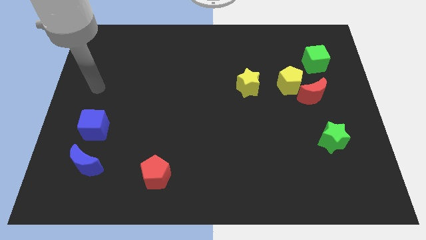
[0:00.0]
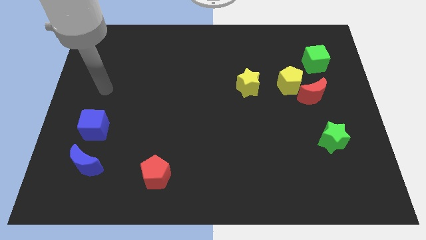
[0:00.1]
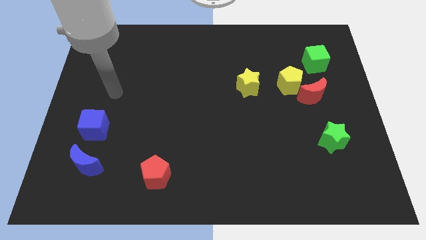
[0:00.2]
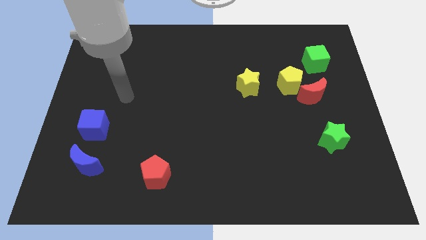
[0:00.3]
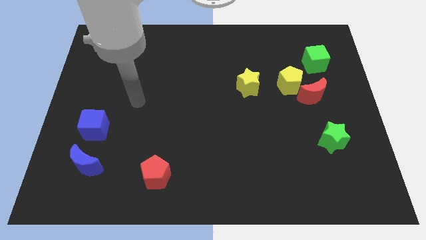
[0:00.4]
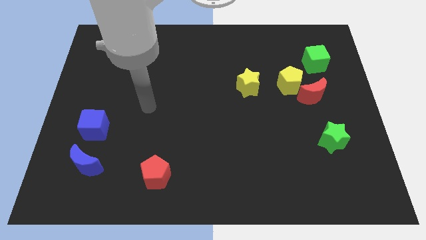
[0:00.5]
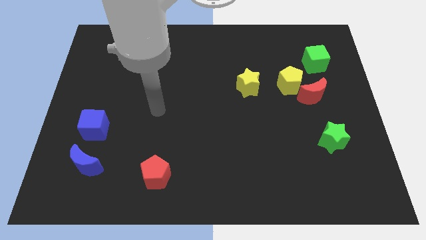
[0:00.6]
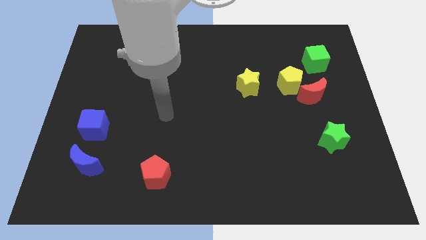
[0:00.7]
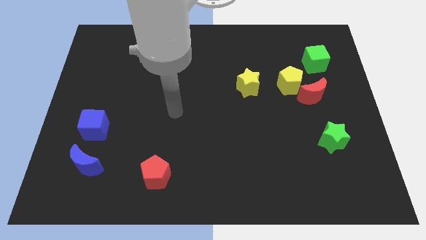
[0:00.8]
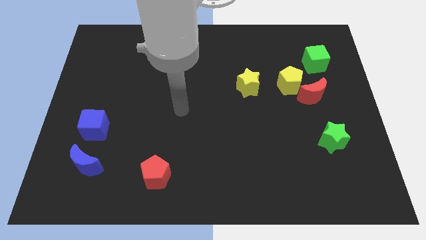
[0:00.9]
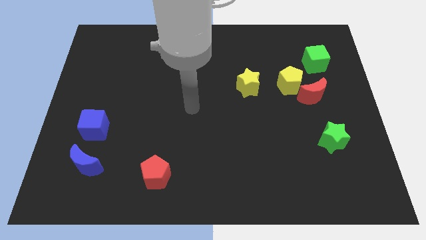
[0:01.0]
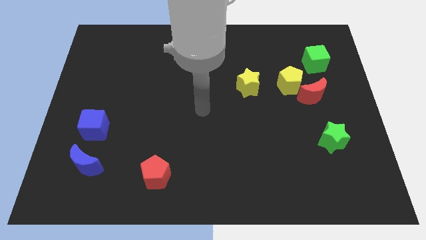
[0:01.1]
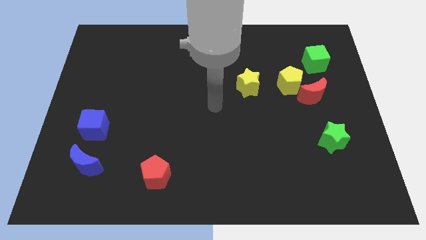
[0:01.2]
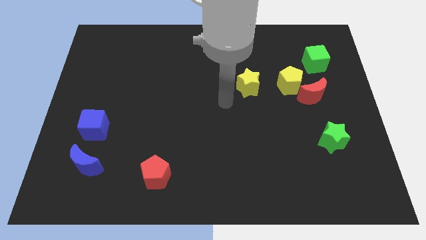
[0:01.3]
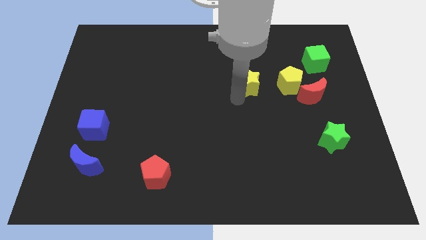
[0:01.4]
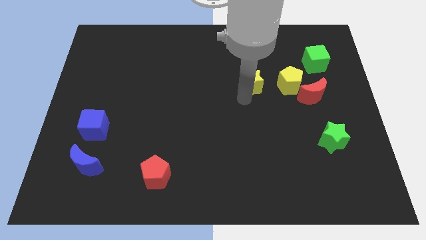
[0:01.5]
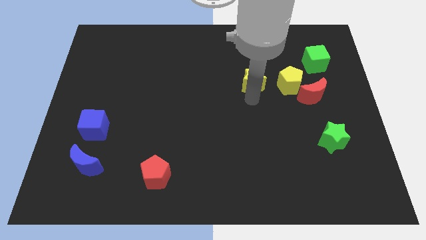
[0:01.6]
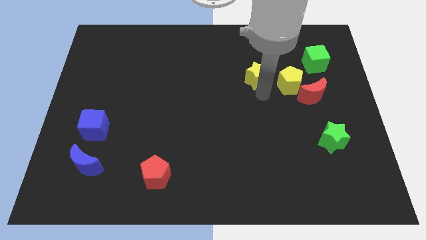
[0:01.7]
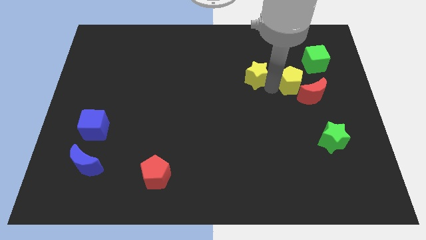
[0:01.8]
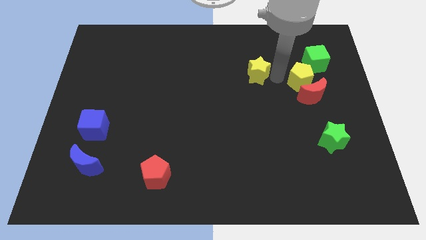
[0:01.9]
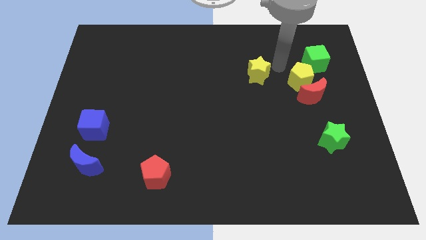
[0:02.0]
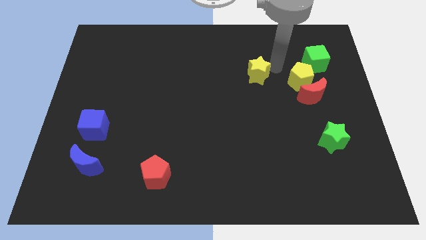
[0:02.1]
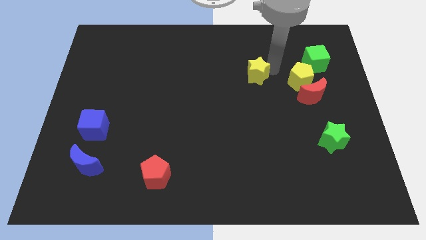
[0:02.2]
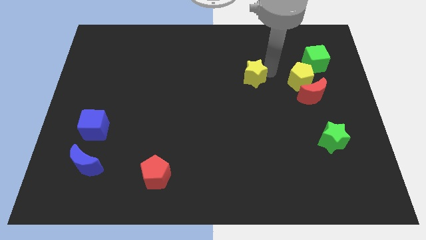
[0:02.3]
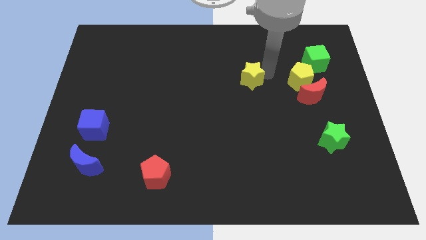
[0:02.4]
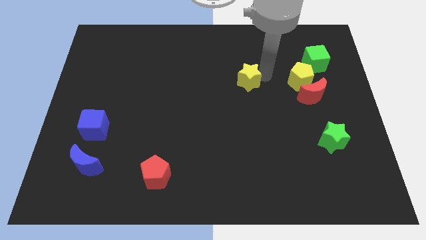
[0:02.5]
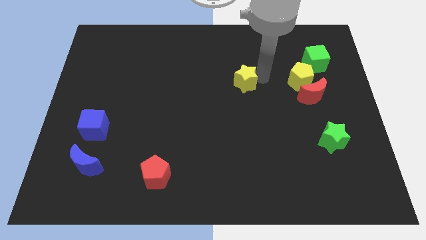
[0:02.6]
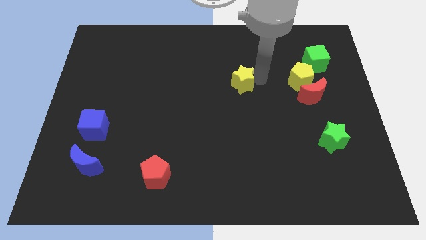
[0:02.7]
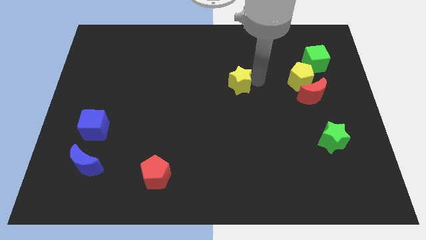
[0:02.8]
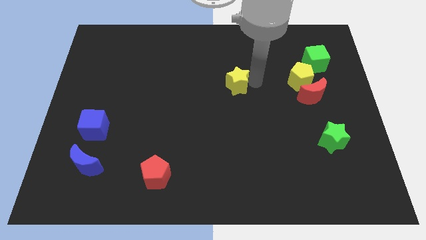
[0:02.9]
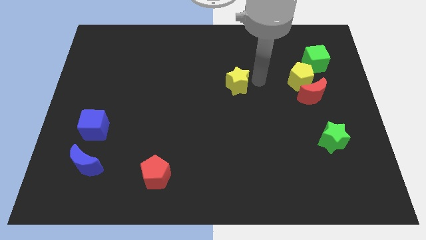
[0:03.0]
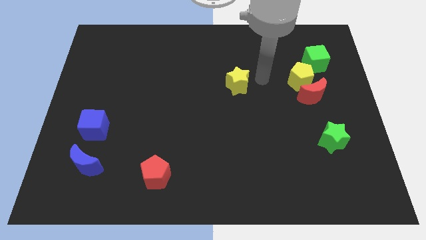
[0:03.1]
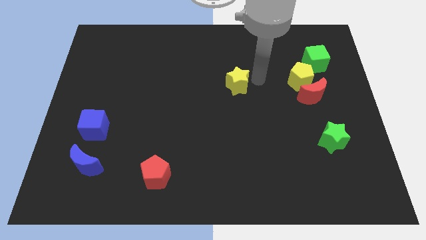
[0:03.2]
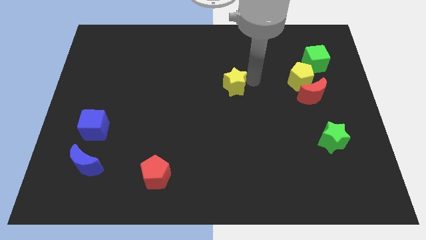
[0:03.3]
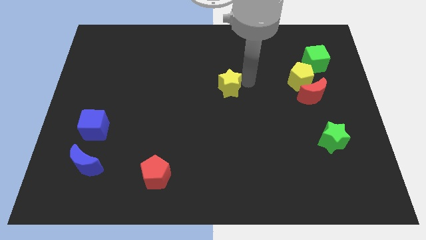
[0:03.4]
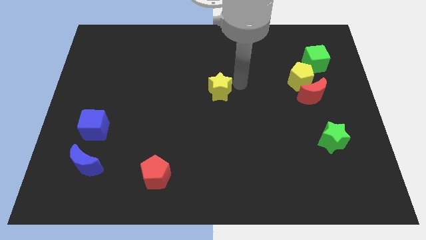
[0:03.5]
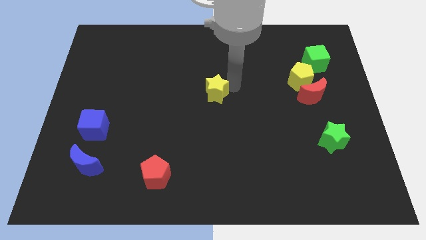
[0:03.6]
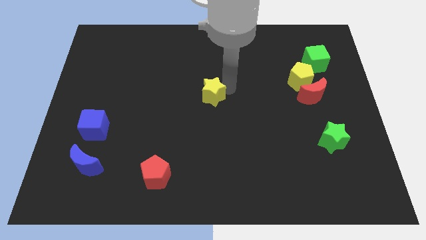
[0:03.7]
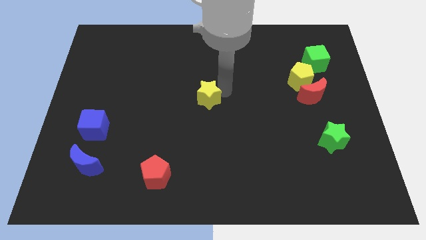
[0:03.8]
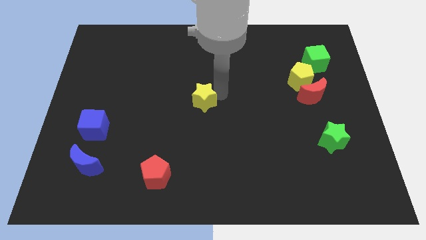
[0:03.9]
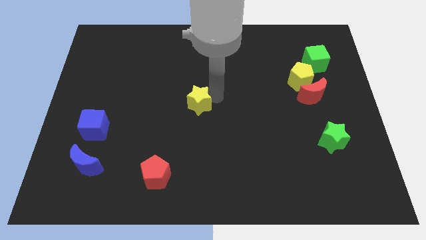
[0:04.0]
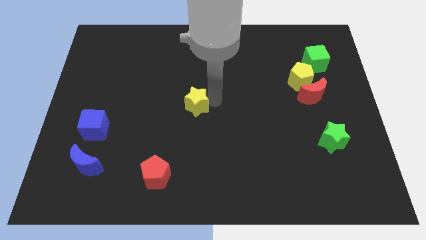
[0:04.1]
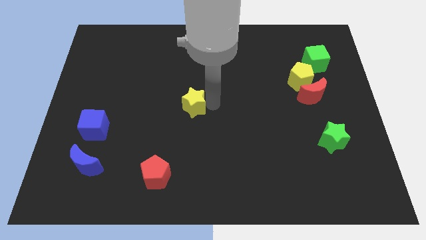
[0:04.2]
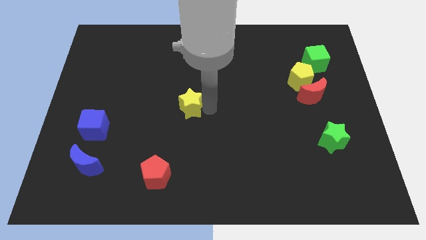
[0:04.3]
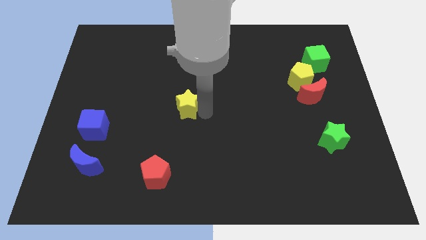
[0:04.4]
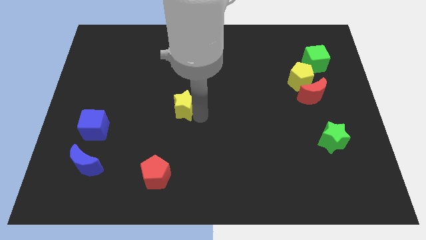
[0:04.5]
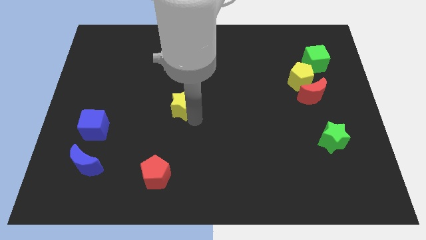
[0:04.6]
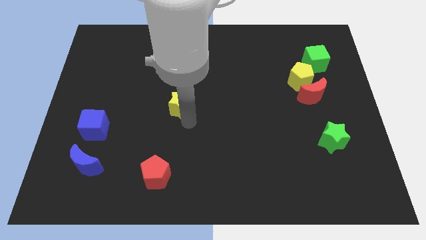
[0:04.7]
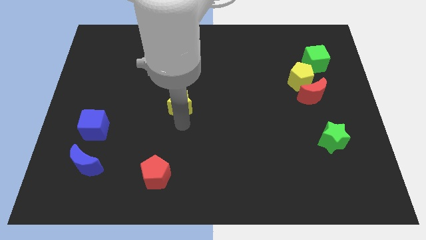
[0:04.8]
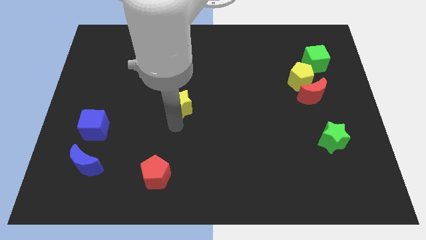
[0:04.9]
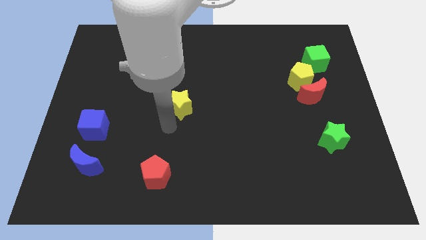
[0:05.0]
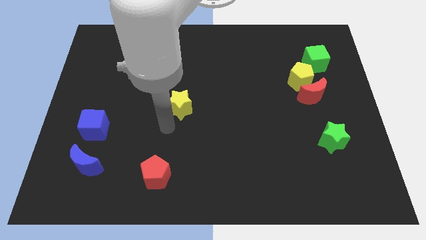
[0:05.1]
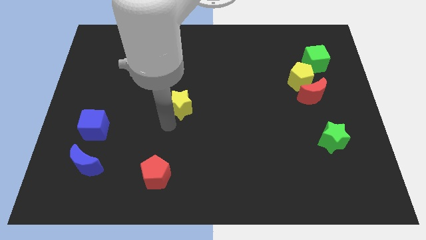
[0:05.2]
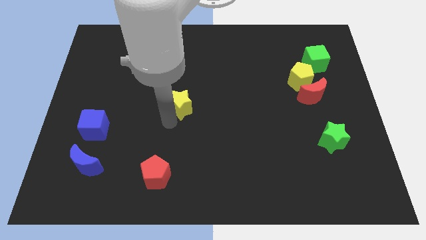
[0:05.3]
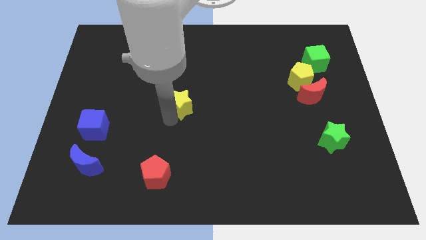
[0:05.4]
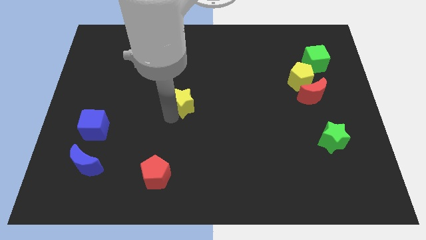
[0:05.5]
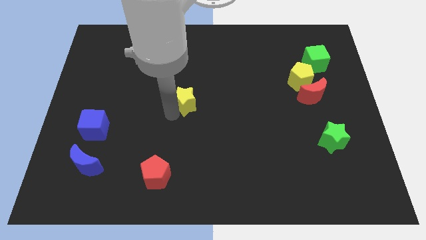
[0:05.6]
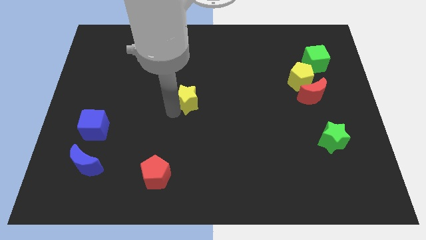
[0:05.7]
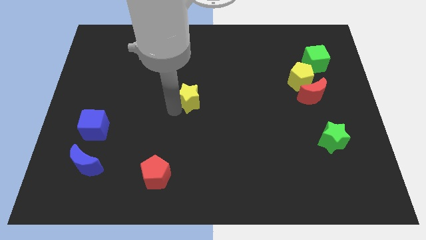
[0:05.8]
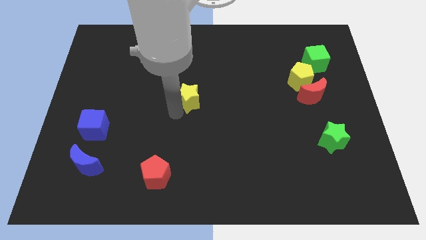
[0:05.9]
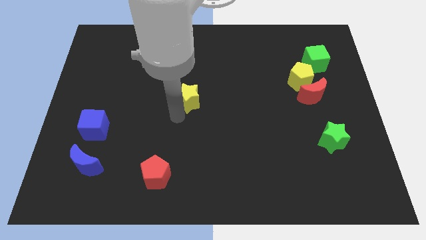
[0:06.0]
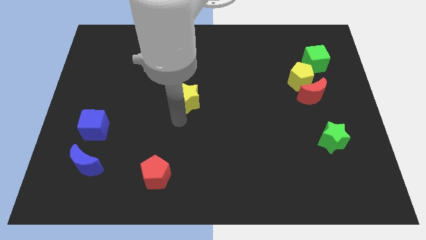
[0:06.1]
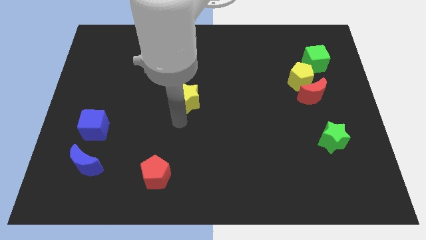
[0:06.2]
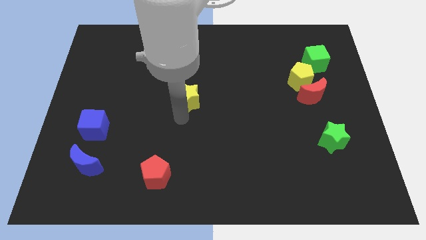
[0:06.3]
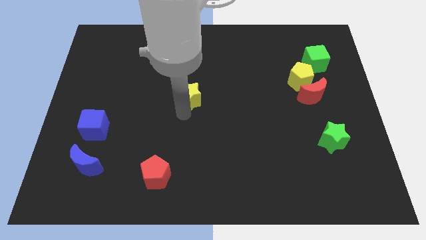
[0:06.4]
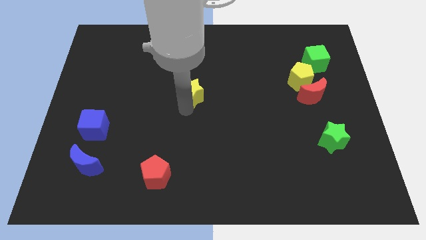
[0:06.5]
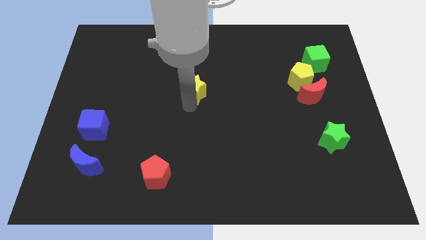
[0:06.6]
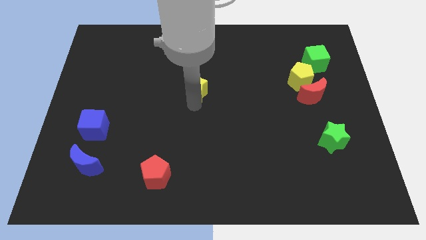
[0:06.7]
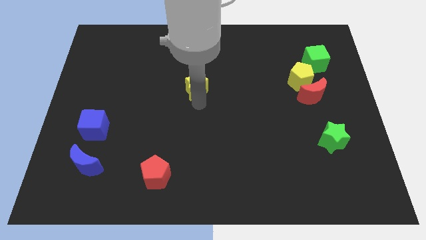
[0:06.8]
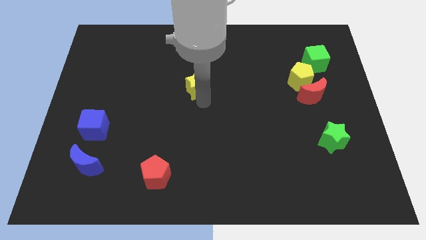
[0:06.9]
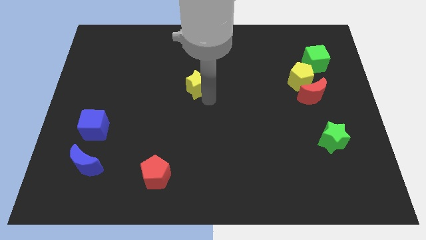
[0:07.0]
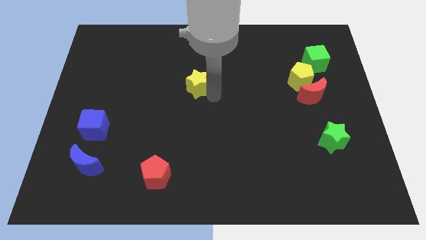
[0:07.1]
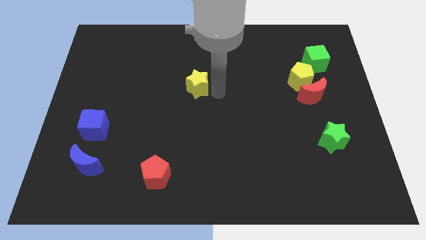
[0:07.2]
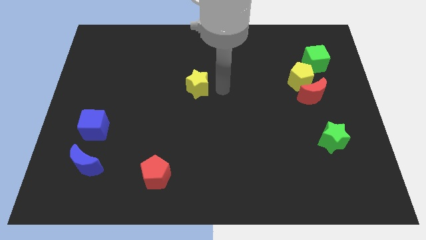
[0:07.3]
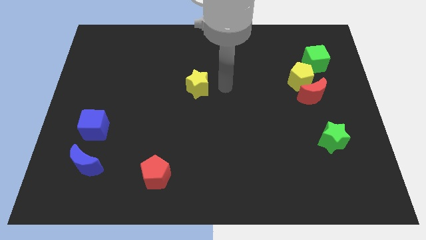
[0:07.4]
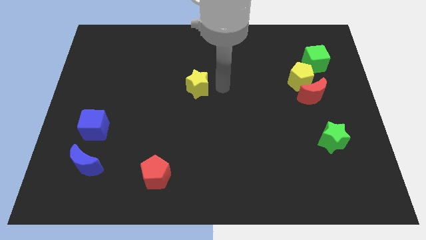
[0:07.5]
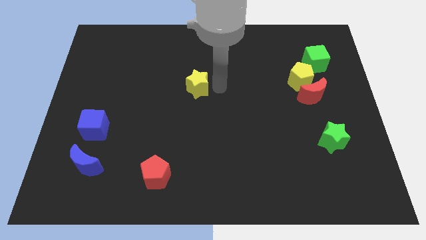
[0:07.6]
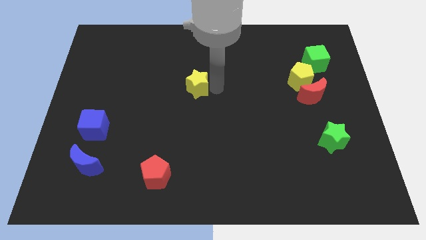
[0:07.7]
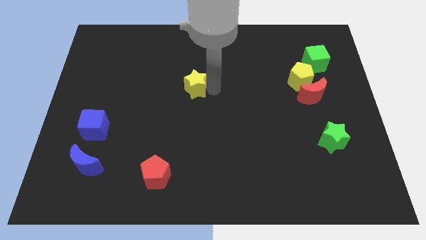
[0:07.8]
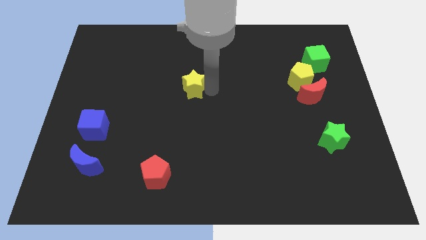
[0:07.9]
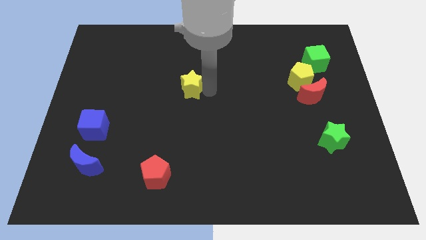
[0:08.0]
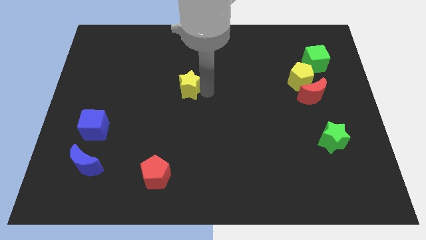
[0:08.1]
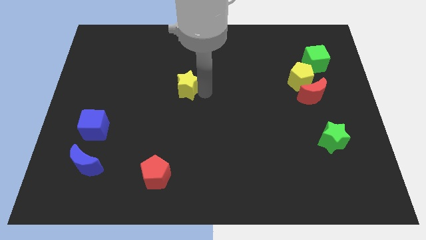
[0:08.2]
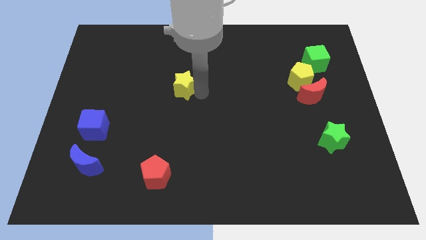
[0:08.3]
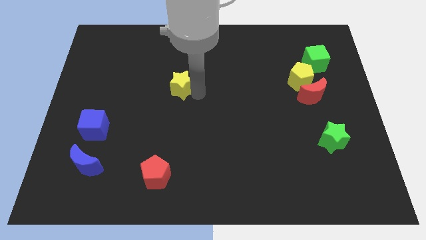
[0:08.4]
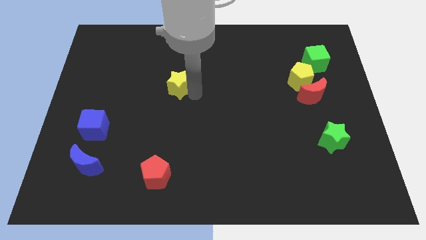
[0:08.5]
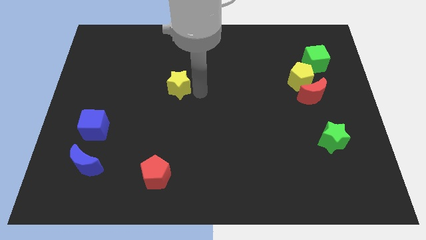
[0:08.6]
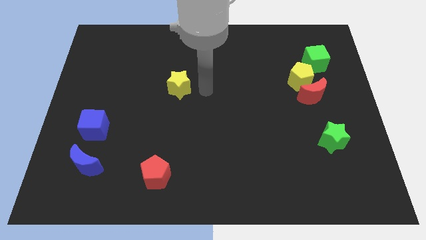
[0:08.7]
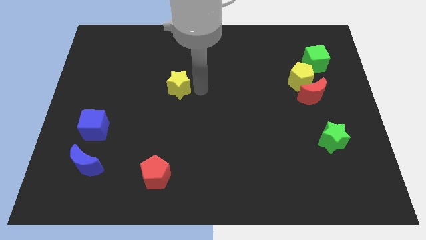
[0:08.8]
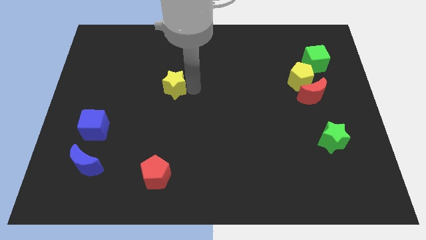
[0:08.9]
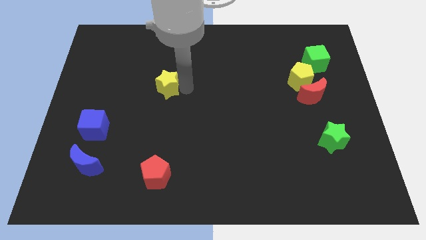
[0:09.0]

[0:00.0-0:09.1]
move the yellow star to the left
